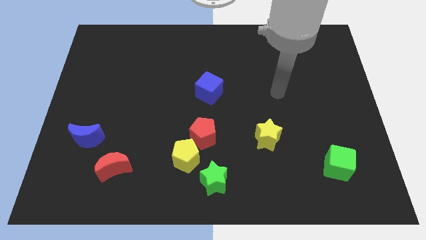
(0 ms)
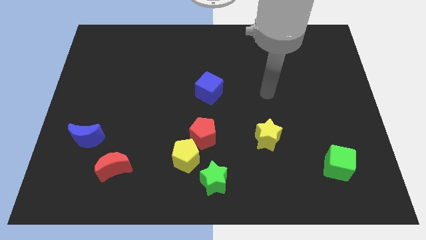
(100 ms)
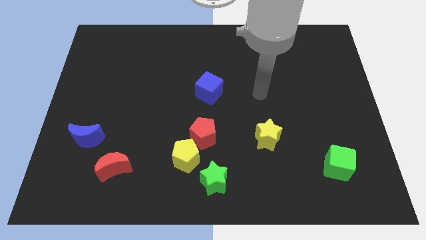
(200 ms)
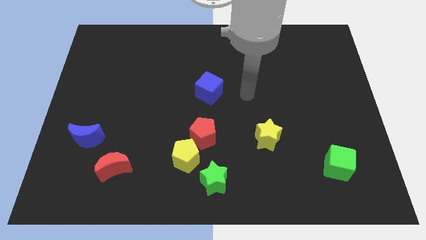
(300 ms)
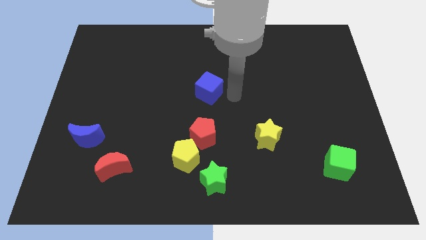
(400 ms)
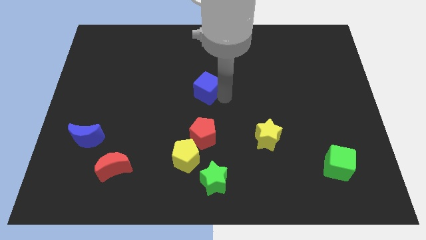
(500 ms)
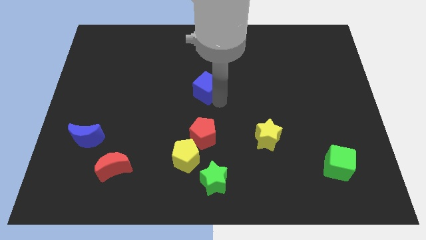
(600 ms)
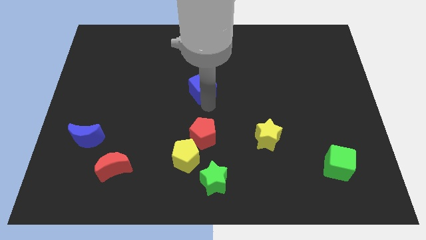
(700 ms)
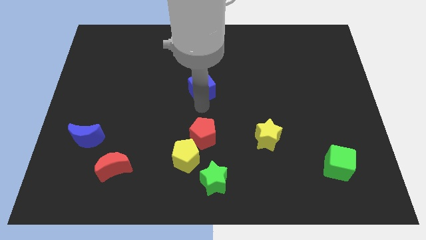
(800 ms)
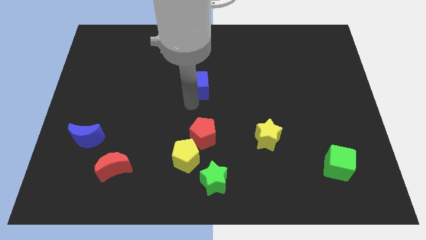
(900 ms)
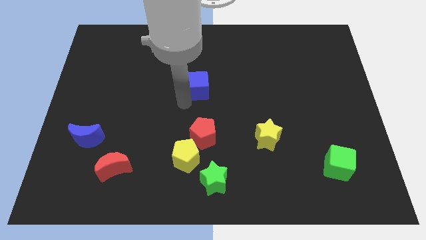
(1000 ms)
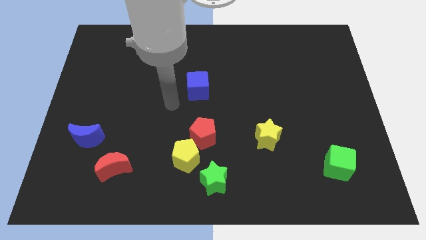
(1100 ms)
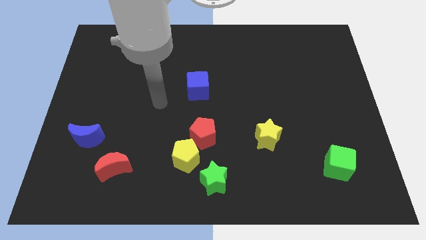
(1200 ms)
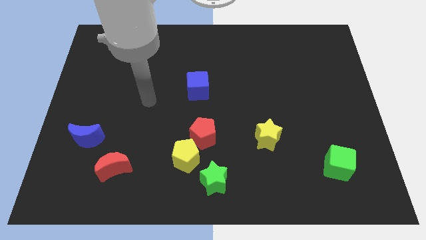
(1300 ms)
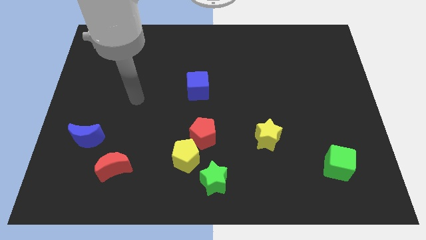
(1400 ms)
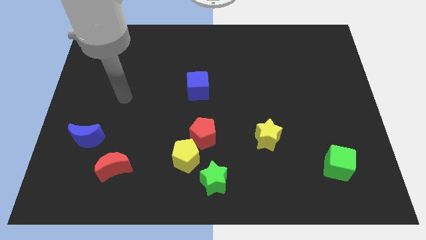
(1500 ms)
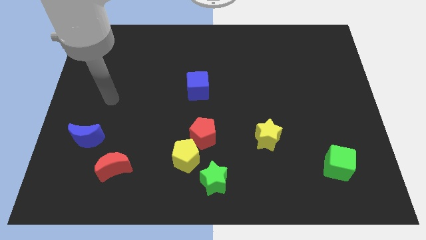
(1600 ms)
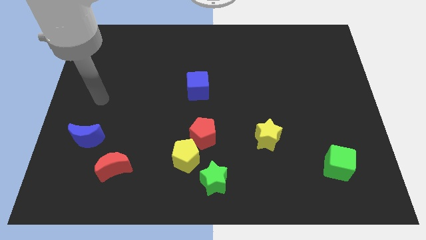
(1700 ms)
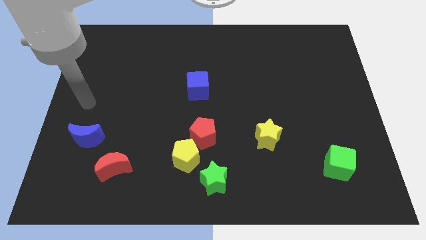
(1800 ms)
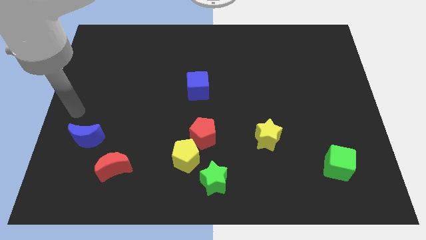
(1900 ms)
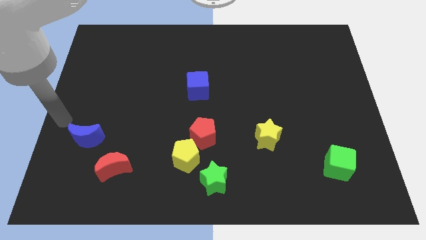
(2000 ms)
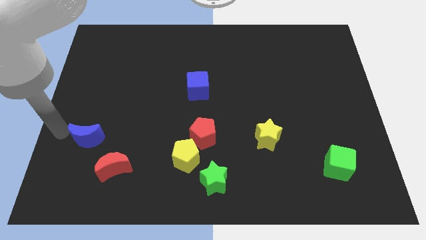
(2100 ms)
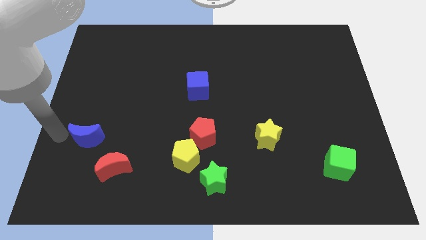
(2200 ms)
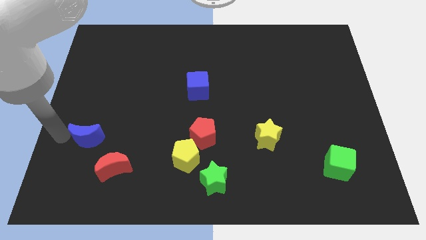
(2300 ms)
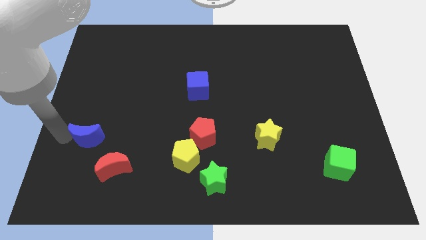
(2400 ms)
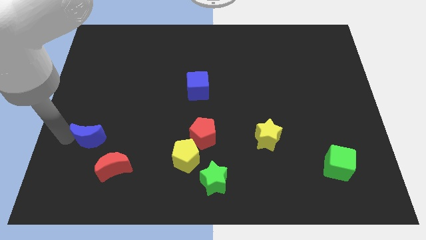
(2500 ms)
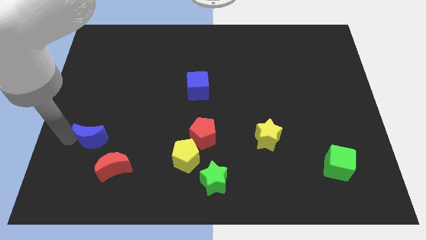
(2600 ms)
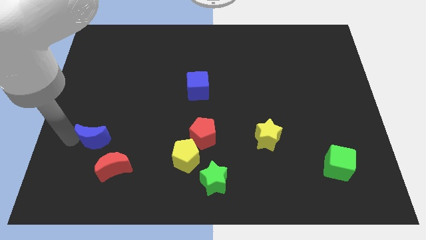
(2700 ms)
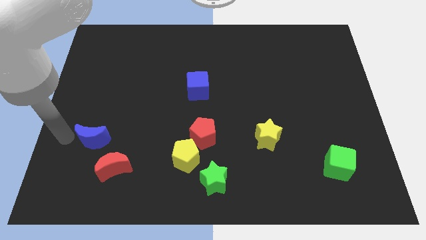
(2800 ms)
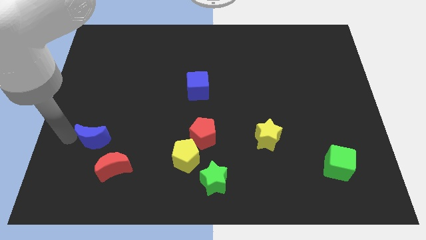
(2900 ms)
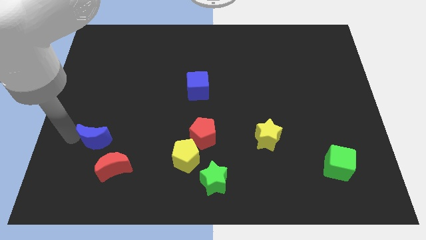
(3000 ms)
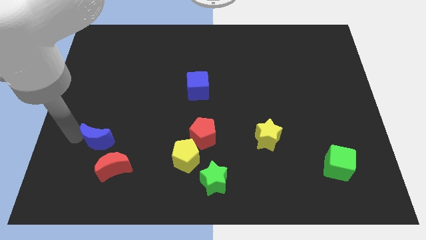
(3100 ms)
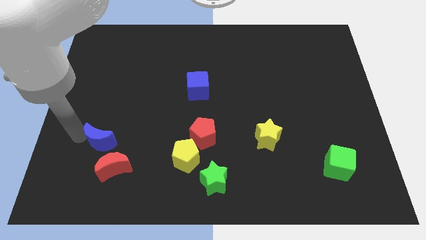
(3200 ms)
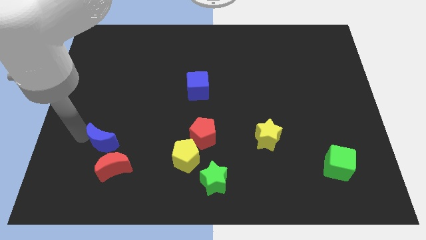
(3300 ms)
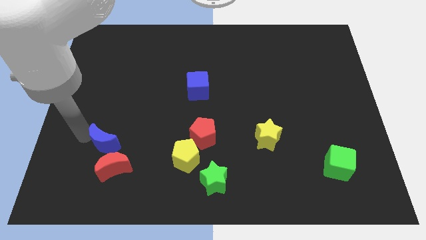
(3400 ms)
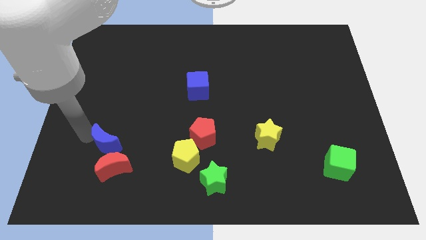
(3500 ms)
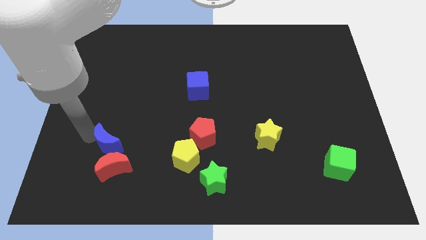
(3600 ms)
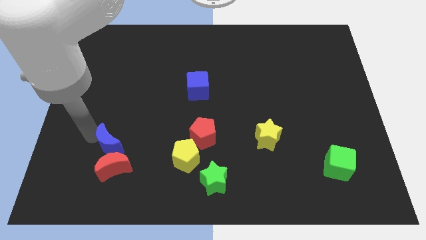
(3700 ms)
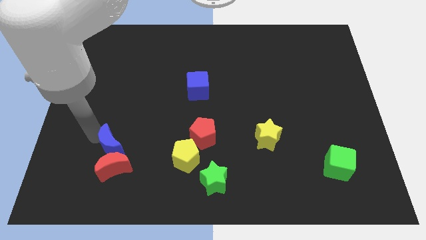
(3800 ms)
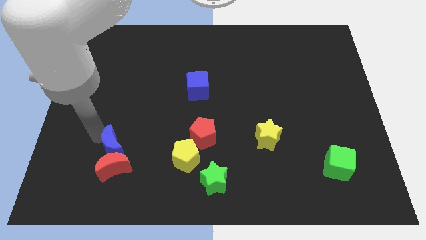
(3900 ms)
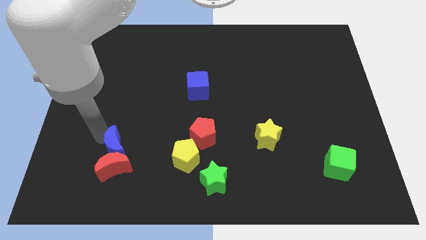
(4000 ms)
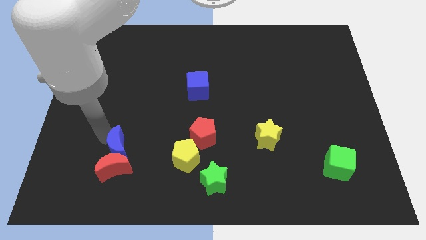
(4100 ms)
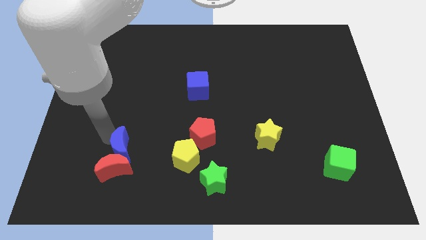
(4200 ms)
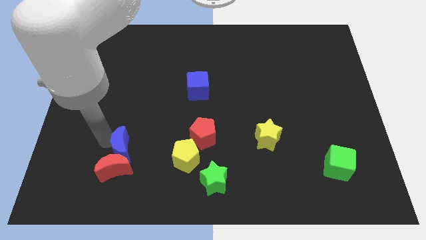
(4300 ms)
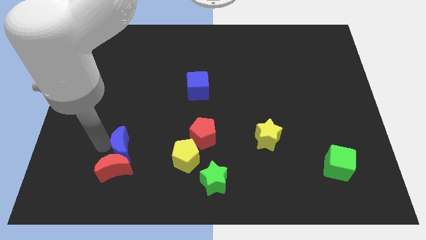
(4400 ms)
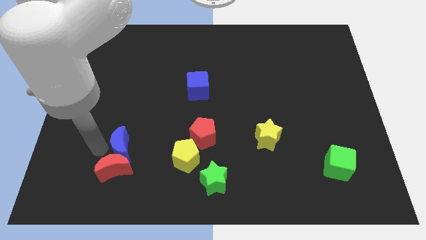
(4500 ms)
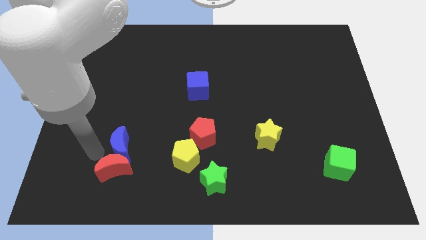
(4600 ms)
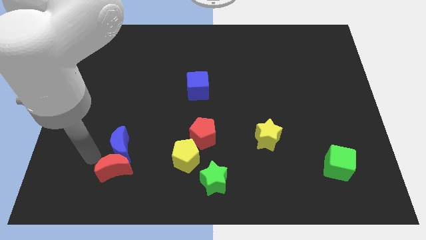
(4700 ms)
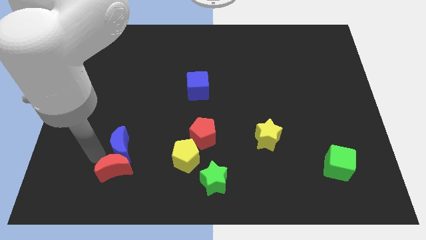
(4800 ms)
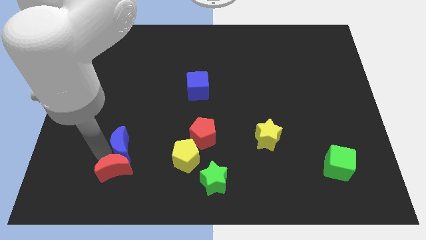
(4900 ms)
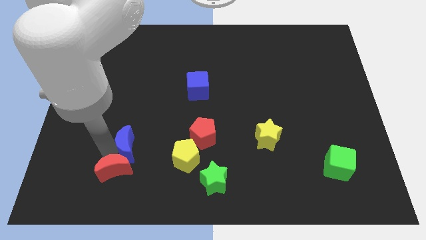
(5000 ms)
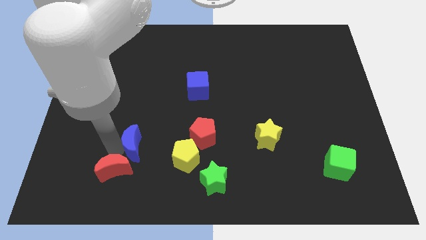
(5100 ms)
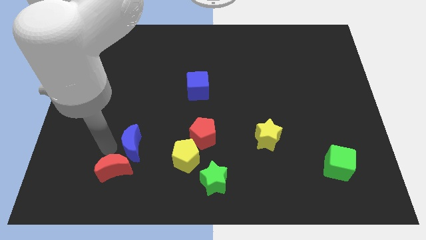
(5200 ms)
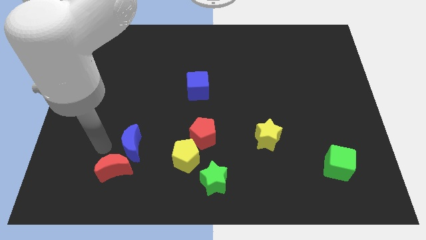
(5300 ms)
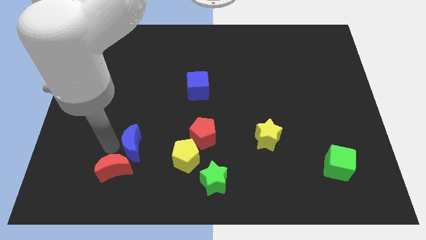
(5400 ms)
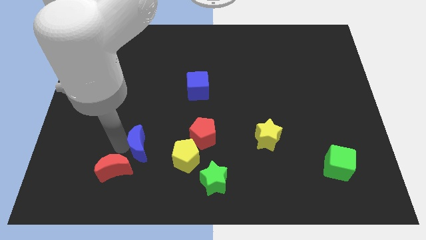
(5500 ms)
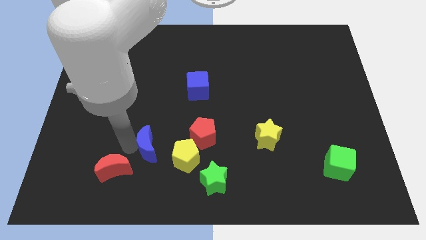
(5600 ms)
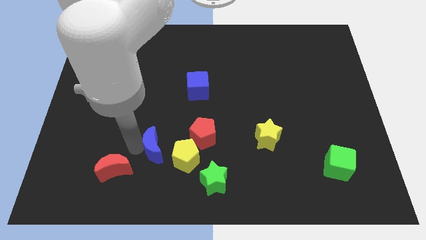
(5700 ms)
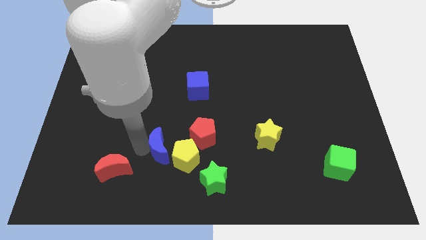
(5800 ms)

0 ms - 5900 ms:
push the blue moon towards the yellow pentagon

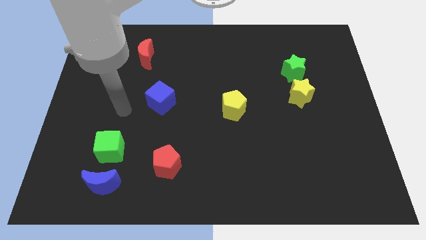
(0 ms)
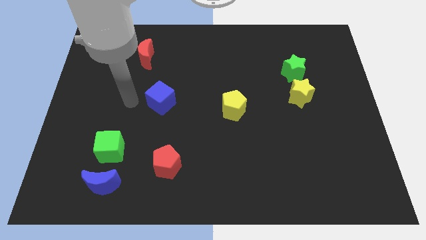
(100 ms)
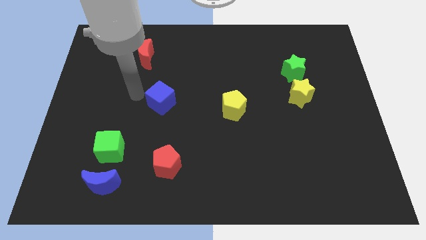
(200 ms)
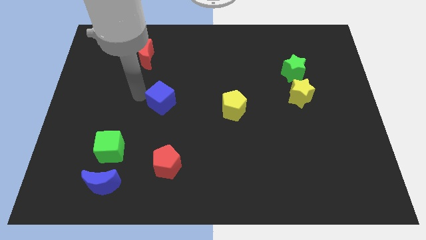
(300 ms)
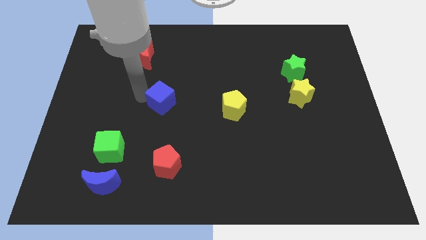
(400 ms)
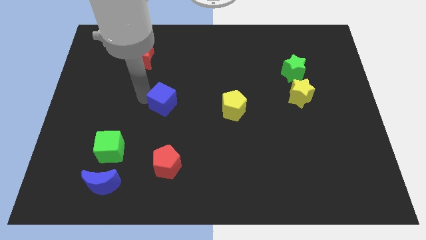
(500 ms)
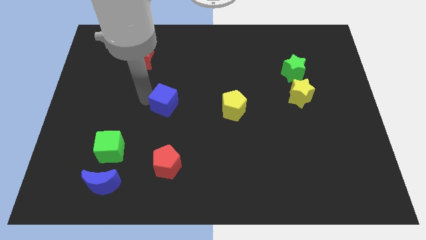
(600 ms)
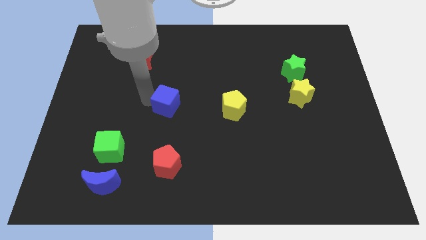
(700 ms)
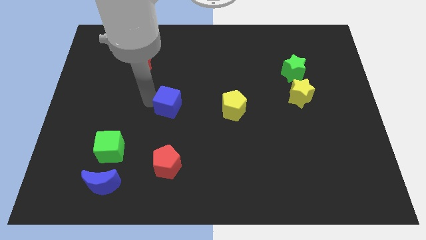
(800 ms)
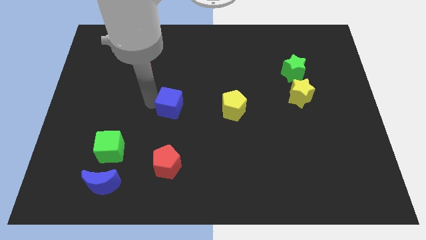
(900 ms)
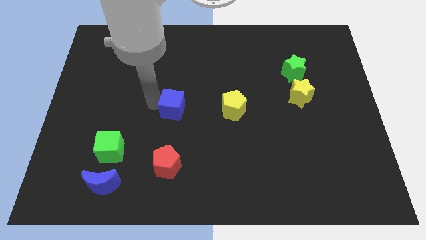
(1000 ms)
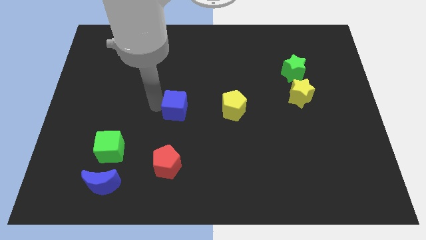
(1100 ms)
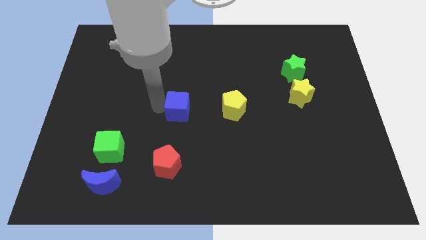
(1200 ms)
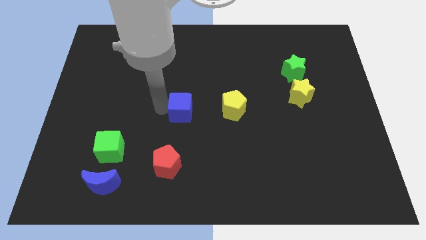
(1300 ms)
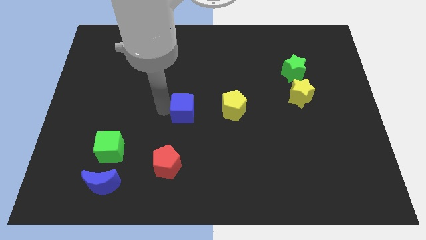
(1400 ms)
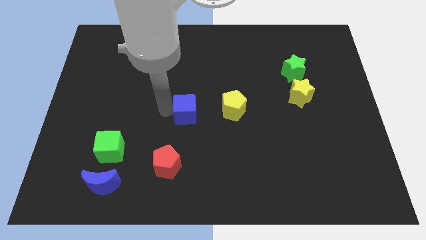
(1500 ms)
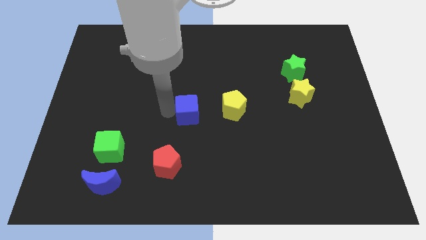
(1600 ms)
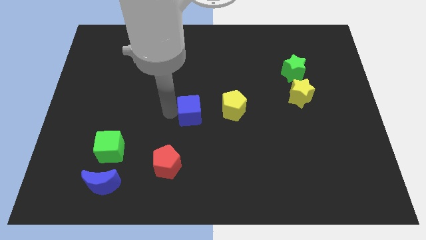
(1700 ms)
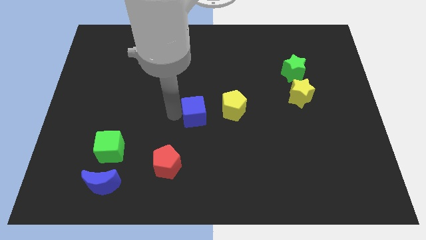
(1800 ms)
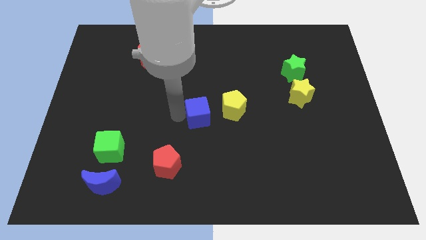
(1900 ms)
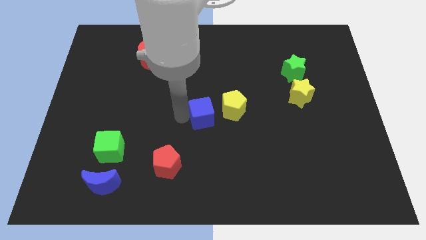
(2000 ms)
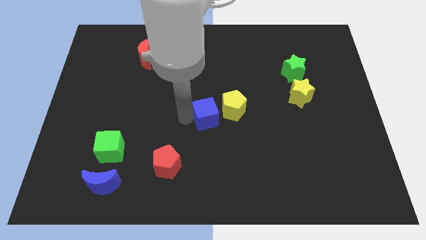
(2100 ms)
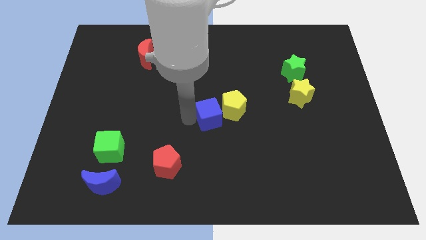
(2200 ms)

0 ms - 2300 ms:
put the blue cube next to the yellow pentagon
